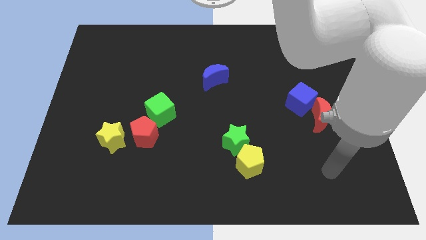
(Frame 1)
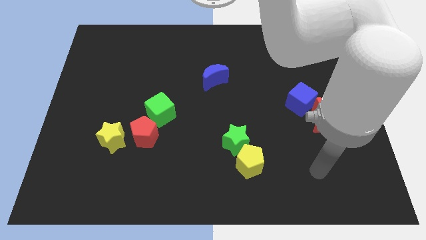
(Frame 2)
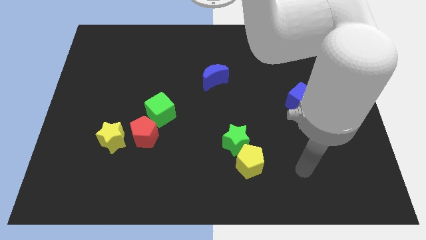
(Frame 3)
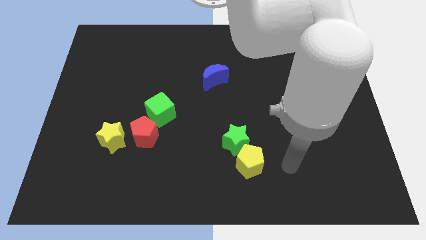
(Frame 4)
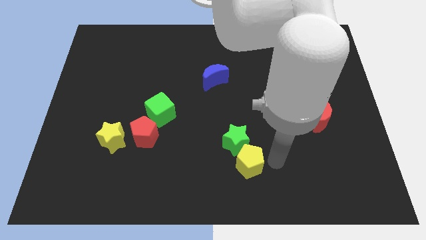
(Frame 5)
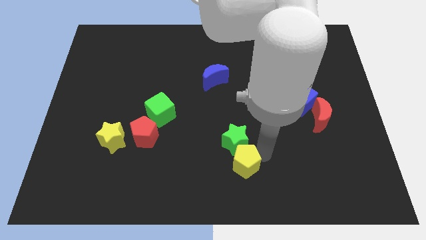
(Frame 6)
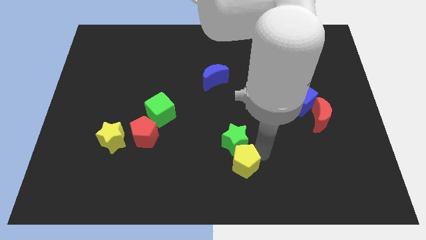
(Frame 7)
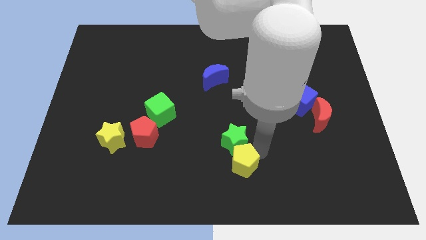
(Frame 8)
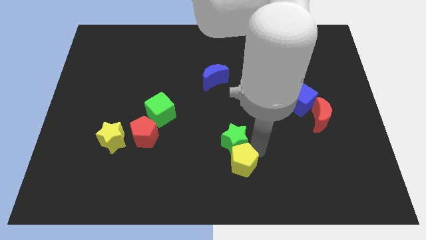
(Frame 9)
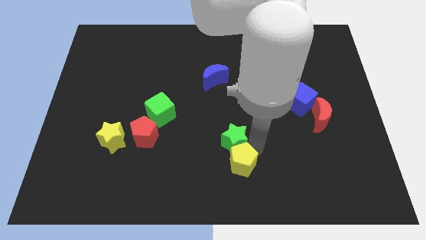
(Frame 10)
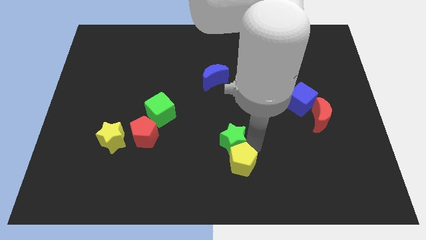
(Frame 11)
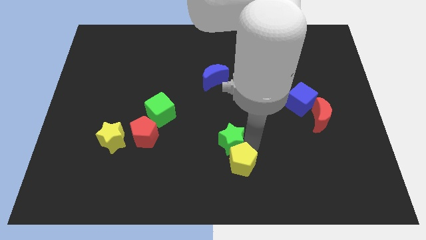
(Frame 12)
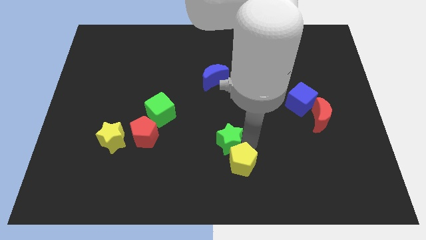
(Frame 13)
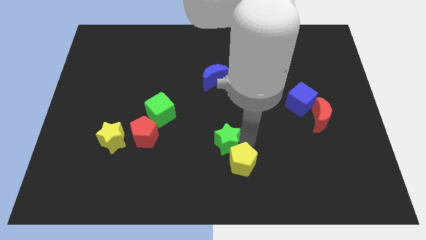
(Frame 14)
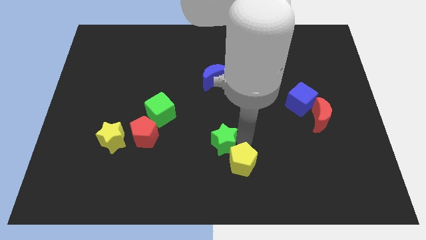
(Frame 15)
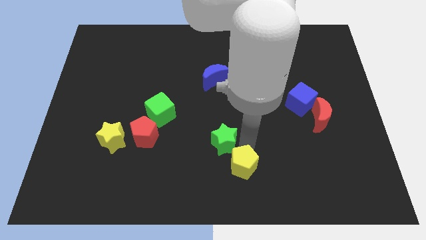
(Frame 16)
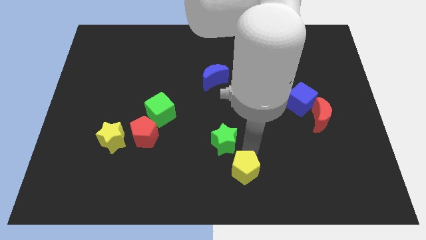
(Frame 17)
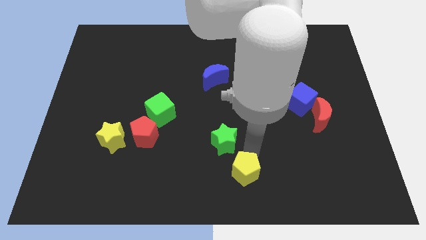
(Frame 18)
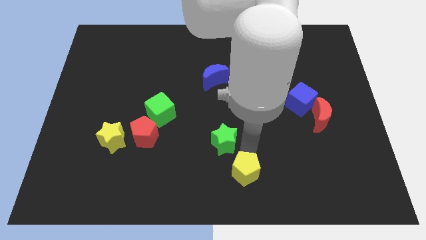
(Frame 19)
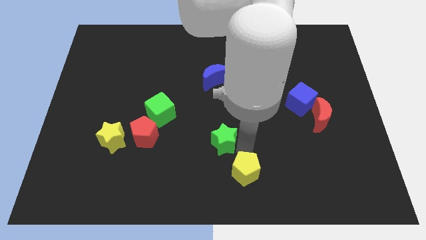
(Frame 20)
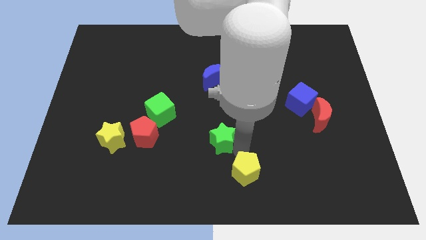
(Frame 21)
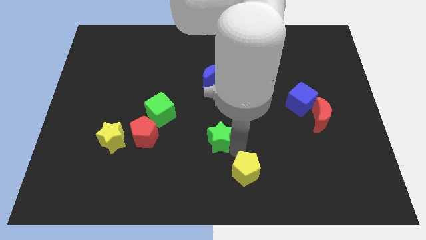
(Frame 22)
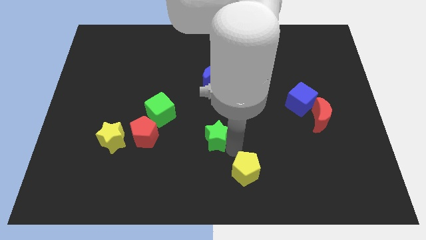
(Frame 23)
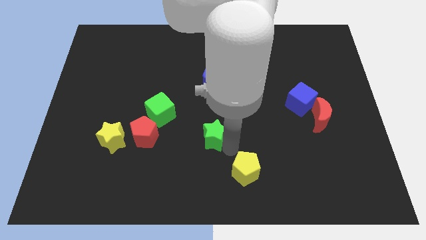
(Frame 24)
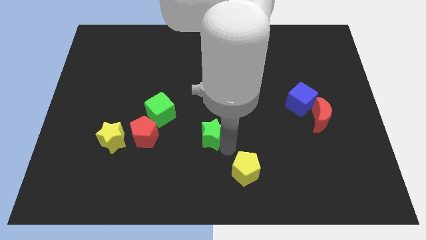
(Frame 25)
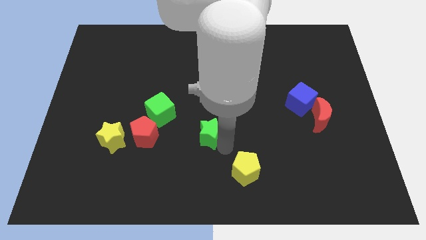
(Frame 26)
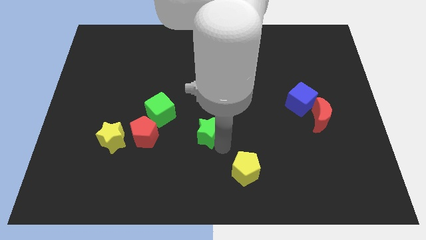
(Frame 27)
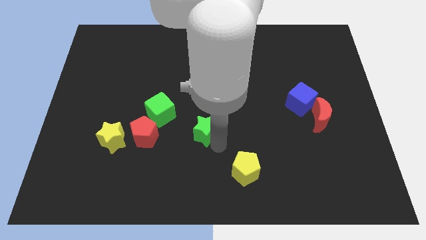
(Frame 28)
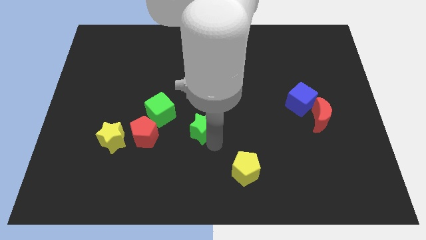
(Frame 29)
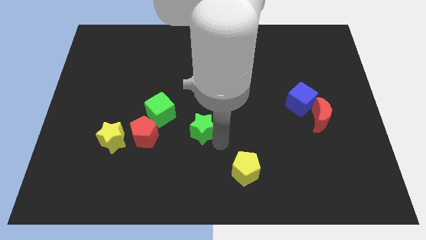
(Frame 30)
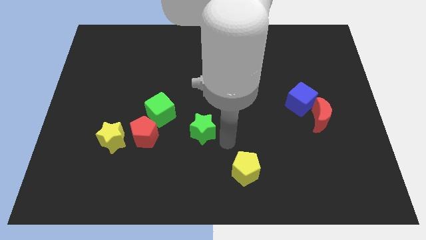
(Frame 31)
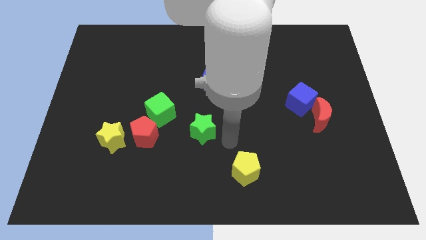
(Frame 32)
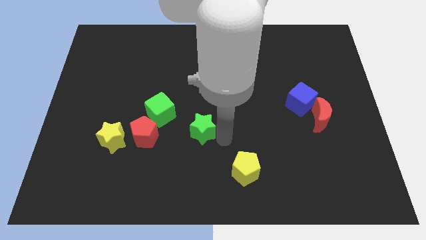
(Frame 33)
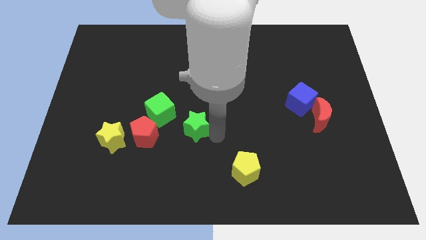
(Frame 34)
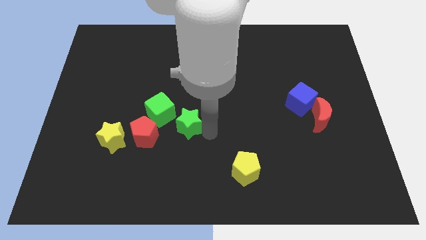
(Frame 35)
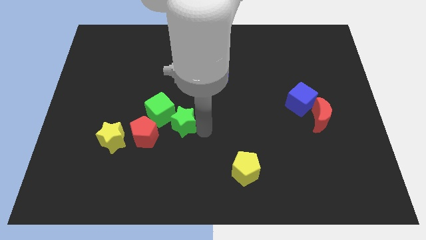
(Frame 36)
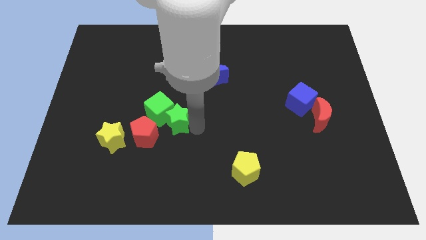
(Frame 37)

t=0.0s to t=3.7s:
put the green star towards the green cube

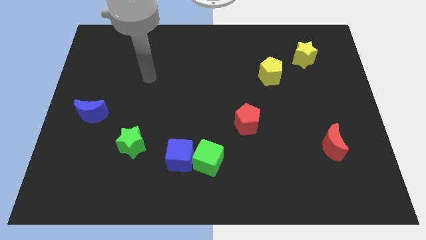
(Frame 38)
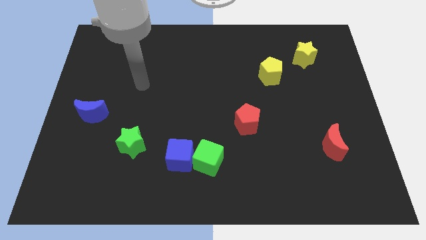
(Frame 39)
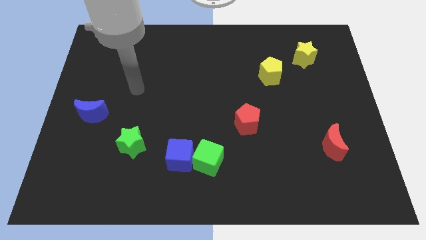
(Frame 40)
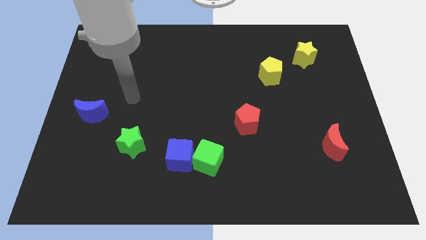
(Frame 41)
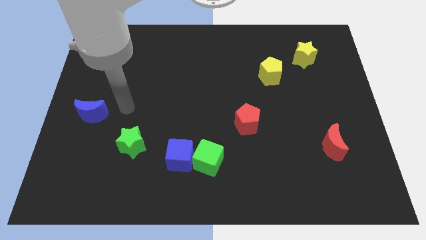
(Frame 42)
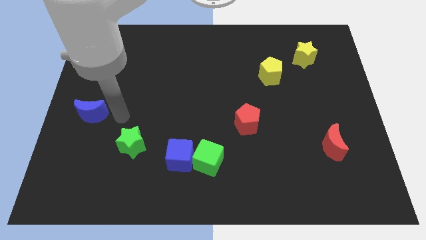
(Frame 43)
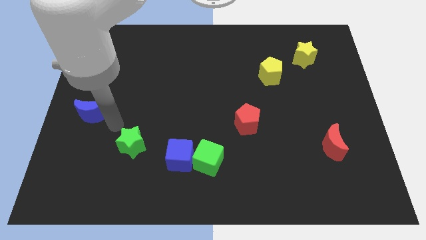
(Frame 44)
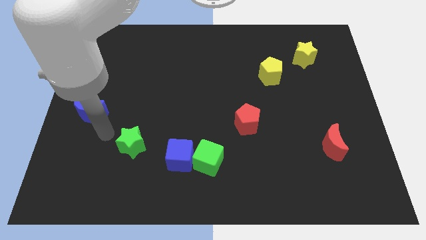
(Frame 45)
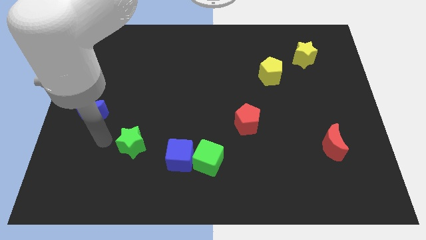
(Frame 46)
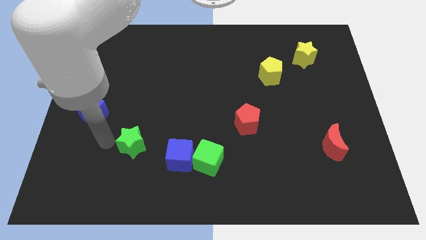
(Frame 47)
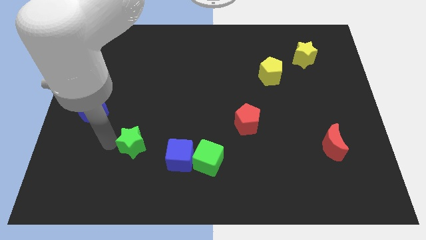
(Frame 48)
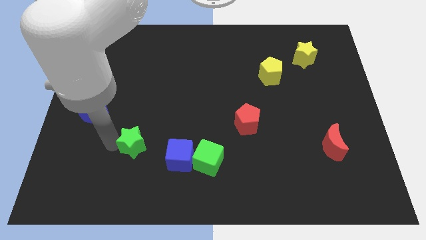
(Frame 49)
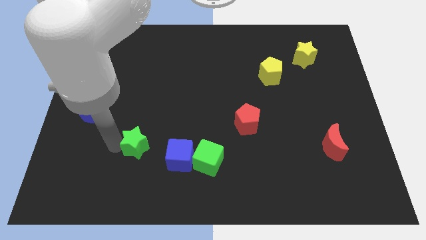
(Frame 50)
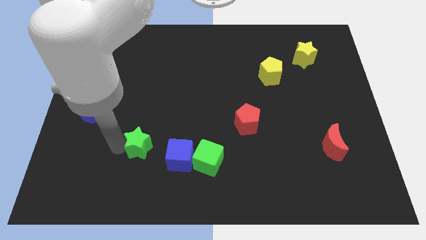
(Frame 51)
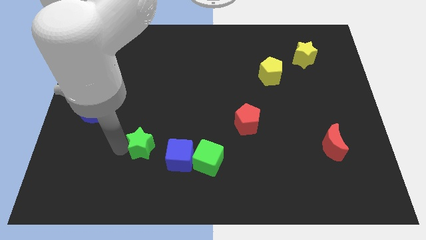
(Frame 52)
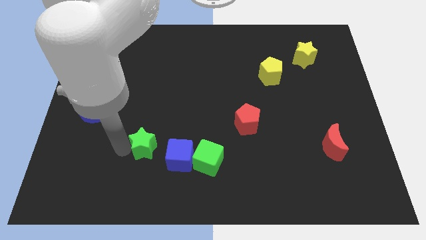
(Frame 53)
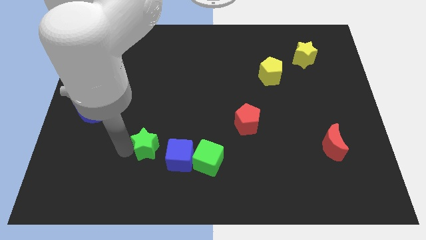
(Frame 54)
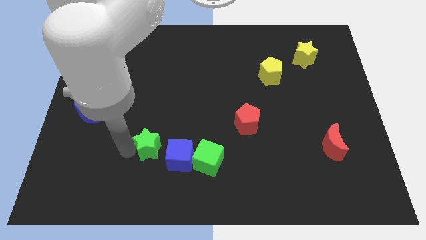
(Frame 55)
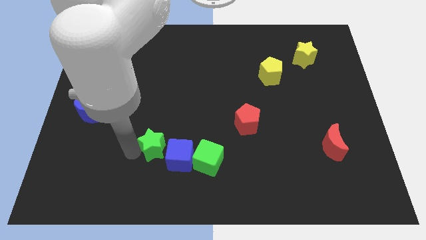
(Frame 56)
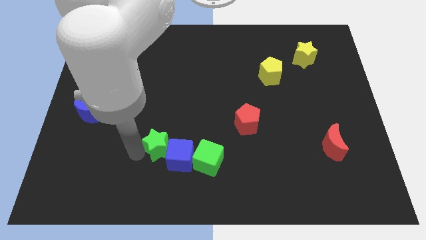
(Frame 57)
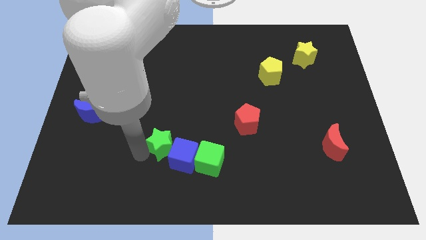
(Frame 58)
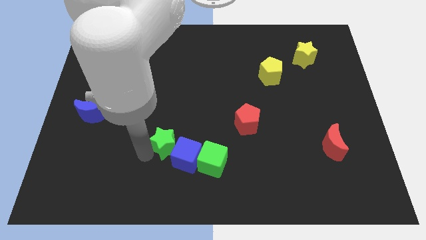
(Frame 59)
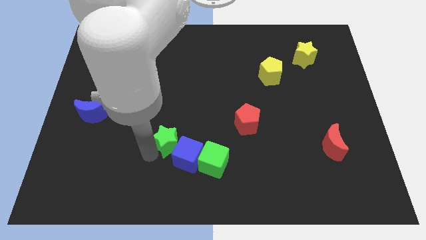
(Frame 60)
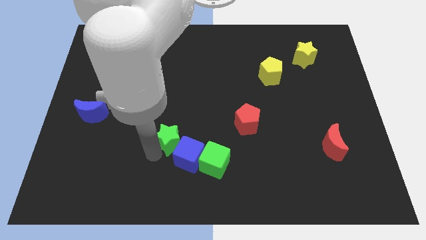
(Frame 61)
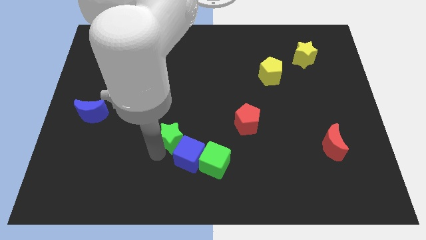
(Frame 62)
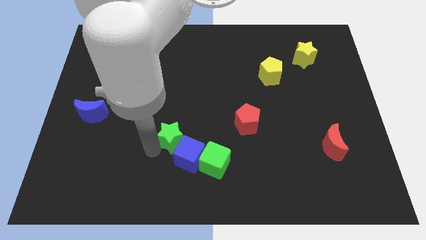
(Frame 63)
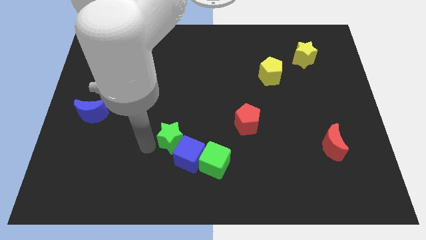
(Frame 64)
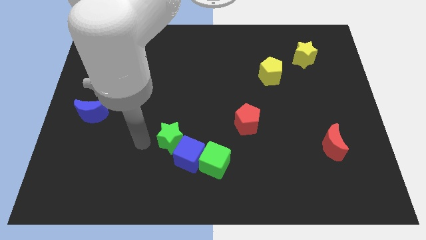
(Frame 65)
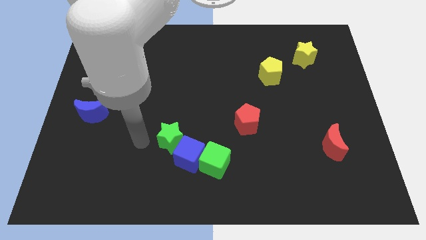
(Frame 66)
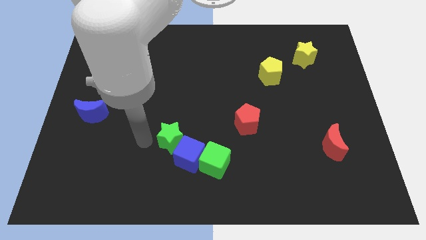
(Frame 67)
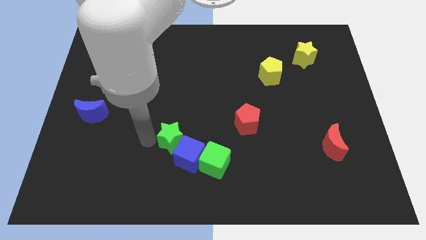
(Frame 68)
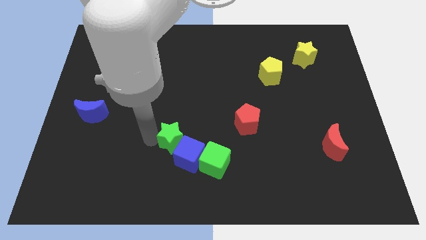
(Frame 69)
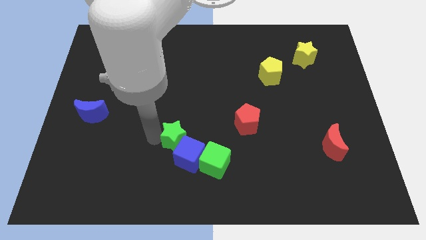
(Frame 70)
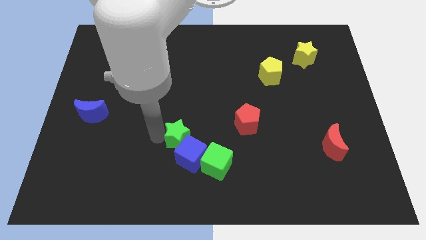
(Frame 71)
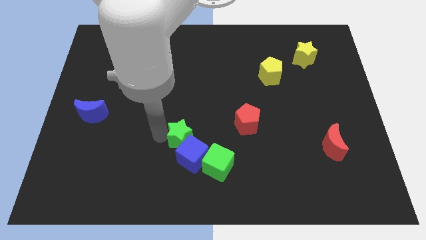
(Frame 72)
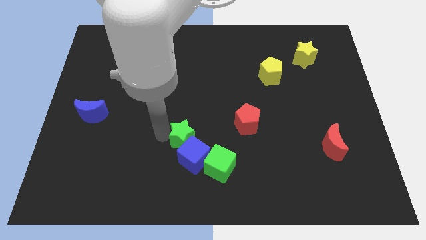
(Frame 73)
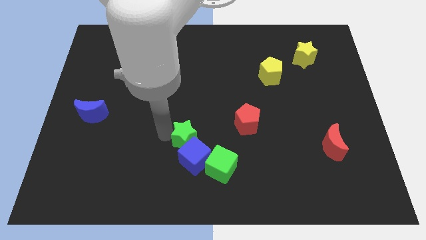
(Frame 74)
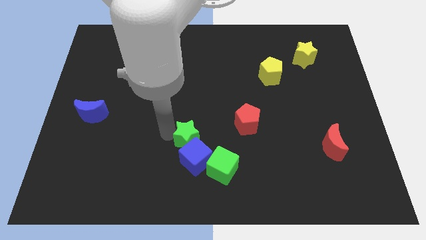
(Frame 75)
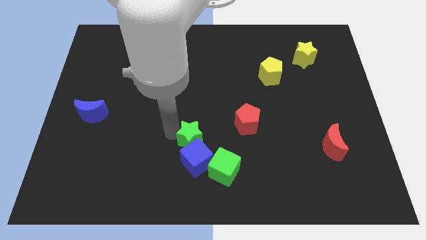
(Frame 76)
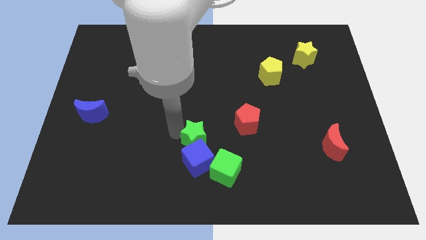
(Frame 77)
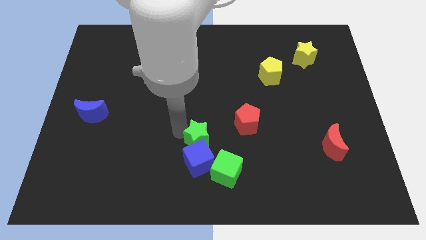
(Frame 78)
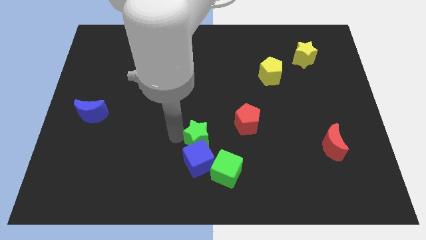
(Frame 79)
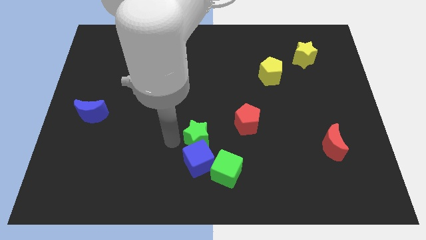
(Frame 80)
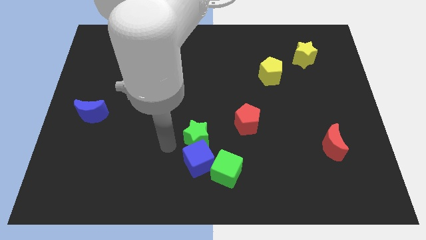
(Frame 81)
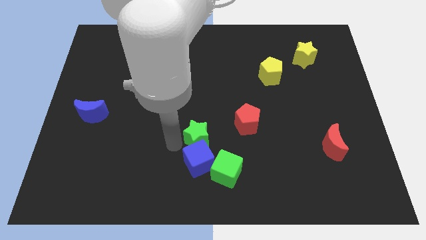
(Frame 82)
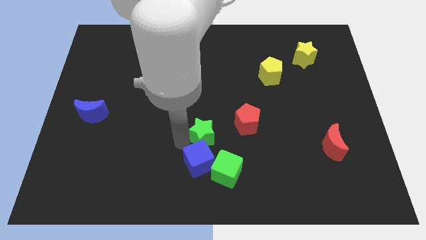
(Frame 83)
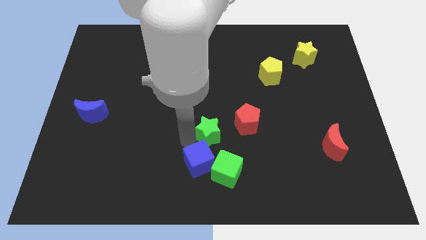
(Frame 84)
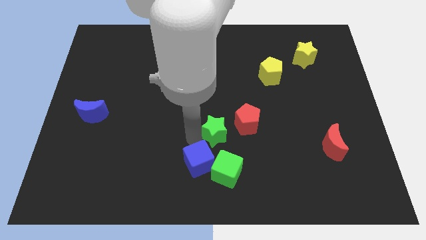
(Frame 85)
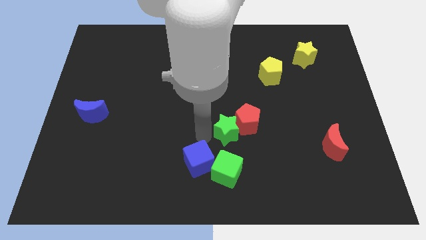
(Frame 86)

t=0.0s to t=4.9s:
push the green star next to the red pentagon
